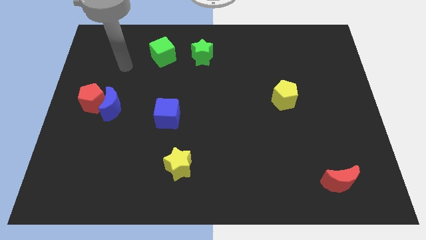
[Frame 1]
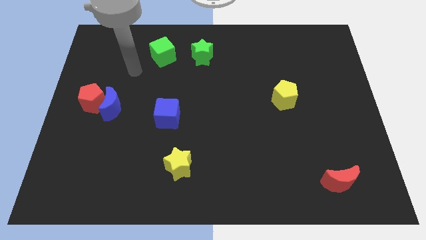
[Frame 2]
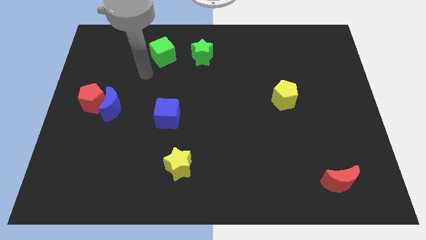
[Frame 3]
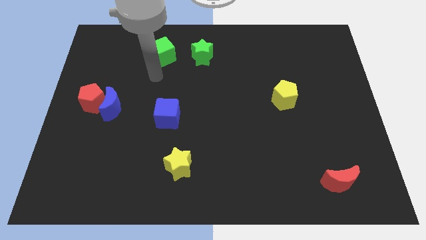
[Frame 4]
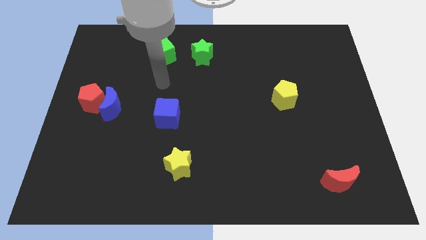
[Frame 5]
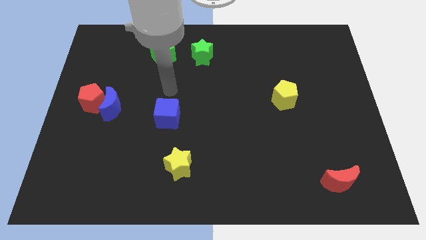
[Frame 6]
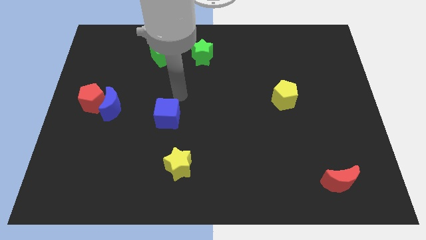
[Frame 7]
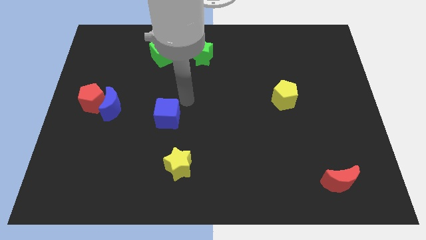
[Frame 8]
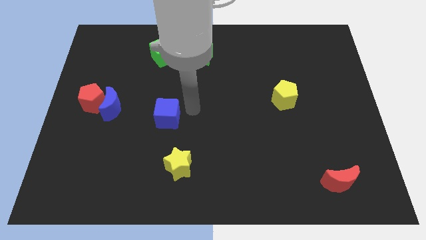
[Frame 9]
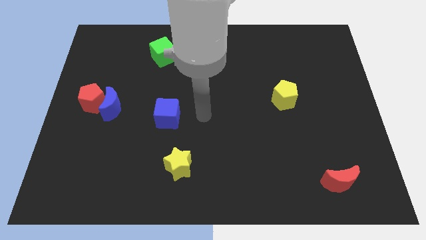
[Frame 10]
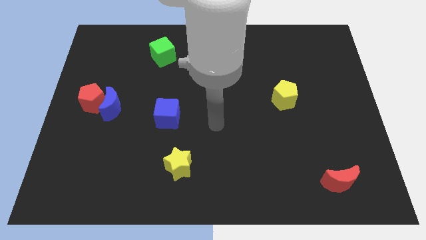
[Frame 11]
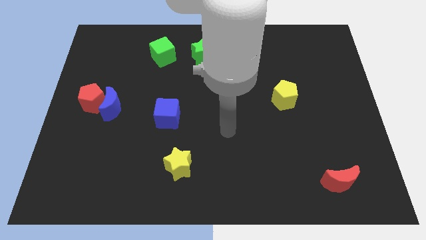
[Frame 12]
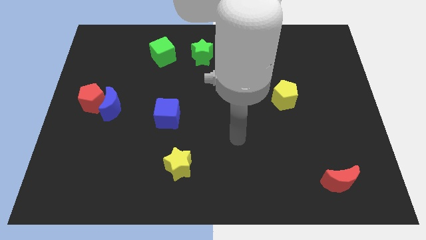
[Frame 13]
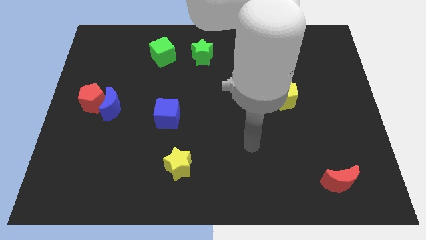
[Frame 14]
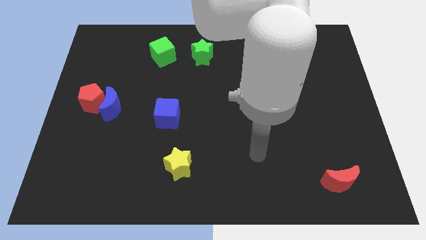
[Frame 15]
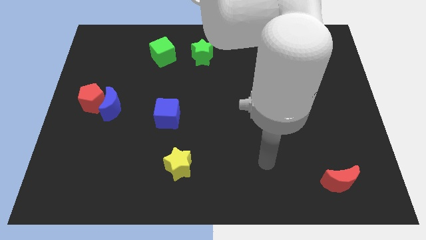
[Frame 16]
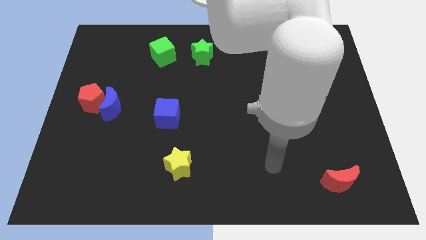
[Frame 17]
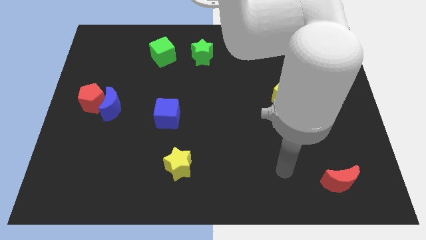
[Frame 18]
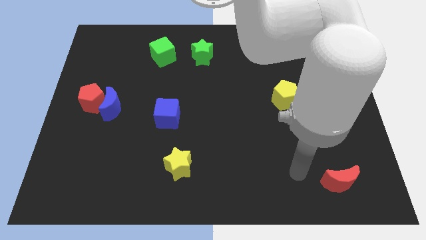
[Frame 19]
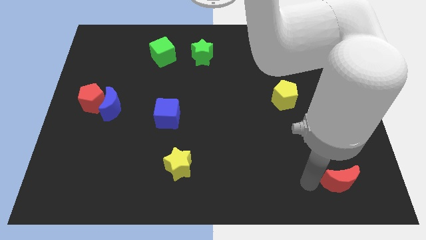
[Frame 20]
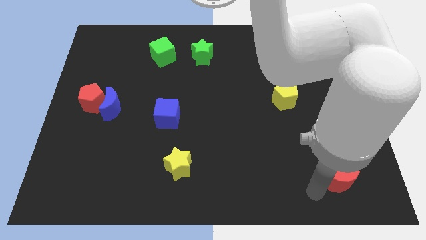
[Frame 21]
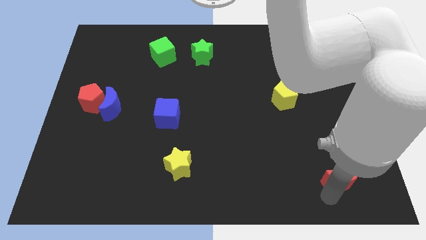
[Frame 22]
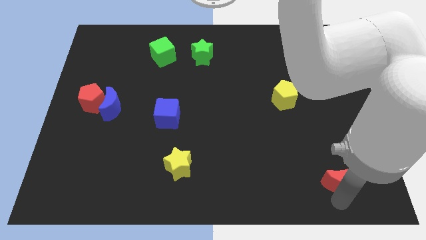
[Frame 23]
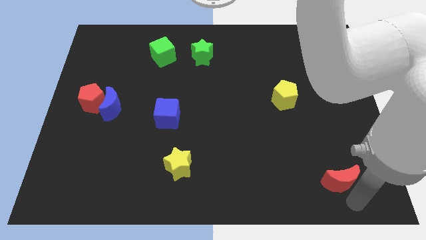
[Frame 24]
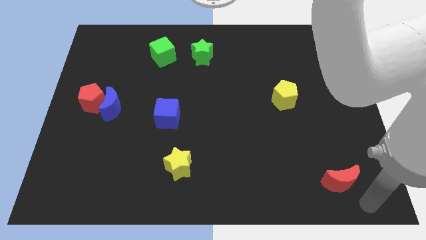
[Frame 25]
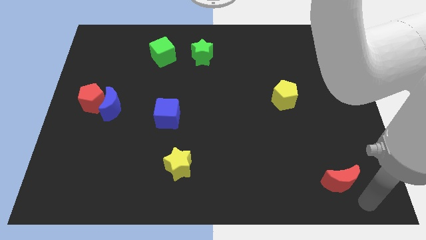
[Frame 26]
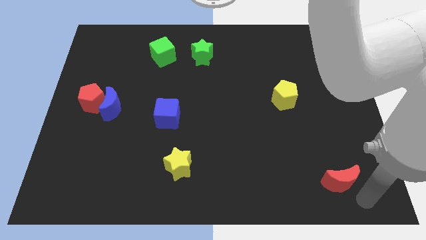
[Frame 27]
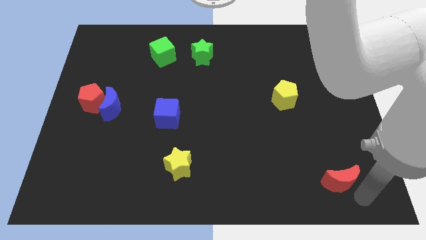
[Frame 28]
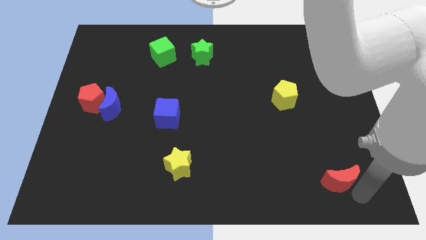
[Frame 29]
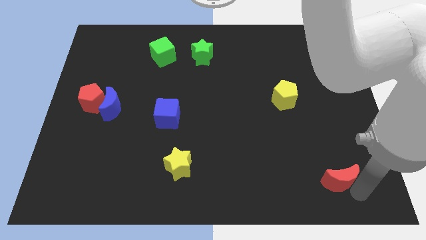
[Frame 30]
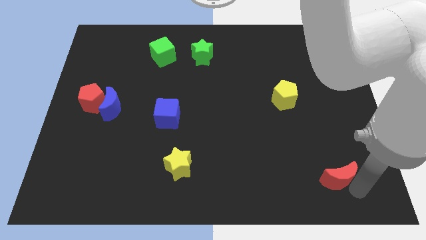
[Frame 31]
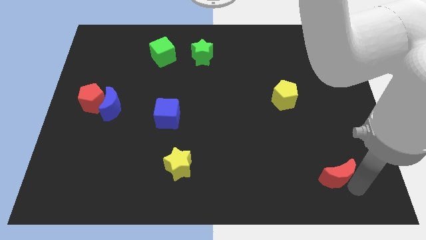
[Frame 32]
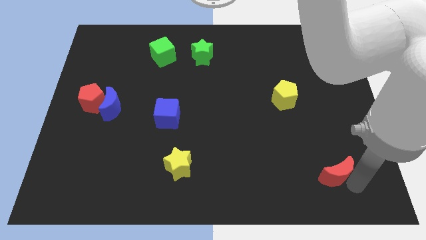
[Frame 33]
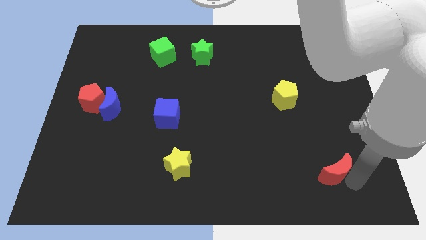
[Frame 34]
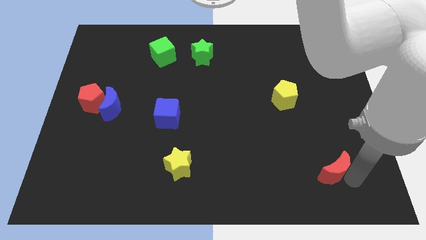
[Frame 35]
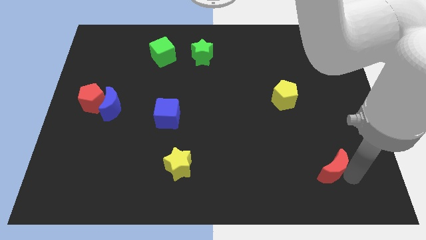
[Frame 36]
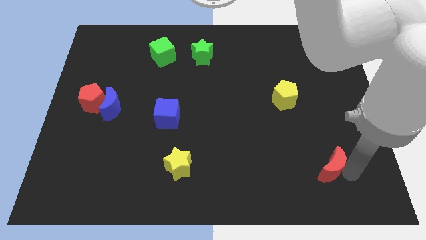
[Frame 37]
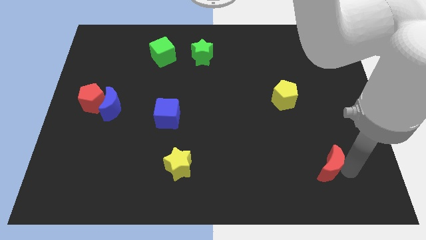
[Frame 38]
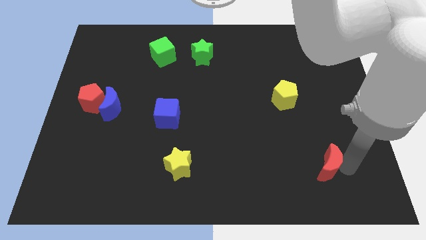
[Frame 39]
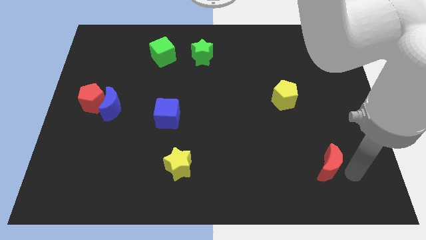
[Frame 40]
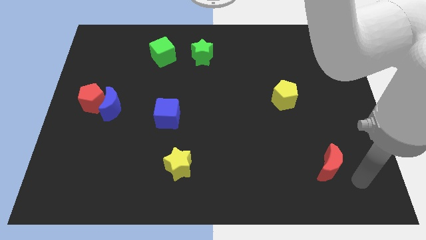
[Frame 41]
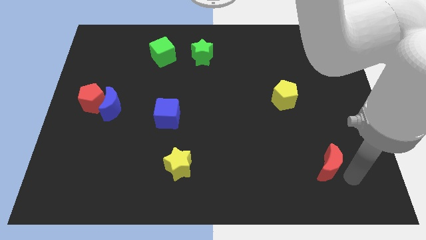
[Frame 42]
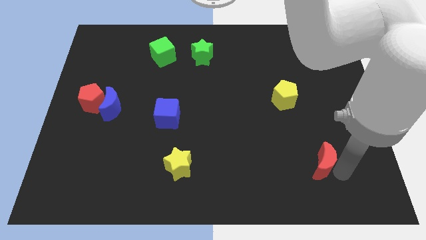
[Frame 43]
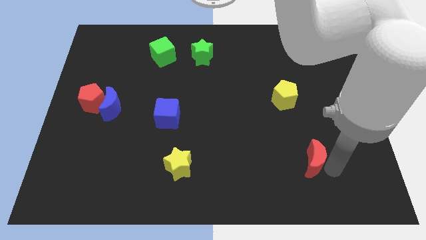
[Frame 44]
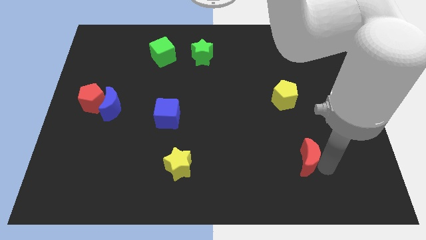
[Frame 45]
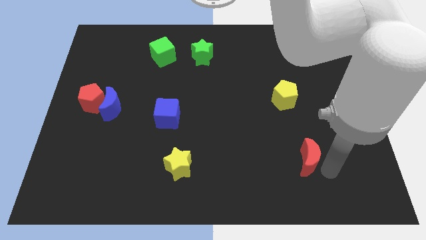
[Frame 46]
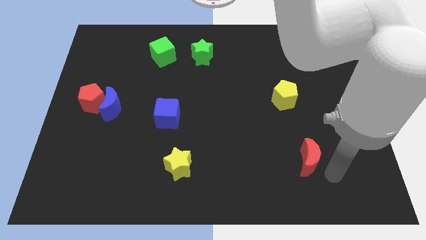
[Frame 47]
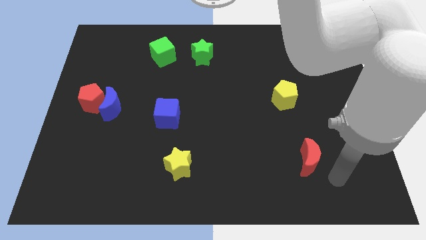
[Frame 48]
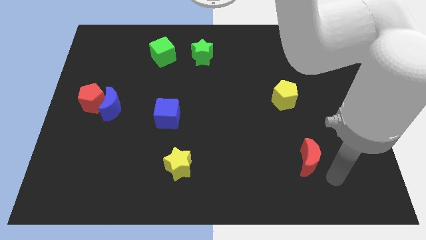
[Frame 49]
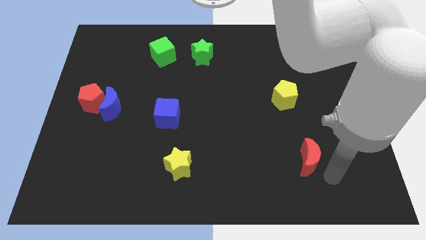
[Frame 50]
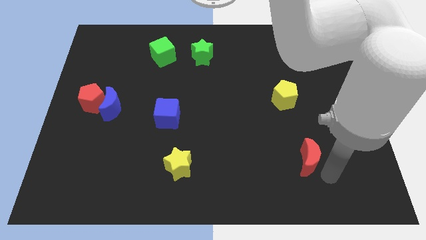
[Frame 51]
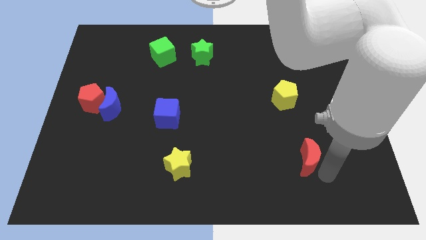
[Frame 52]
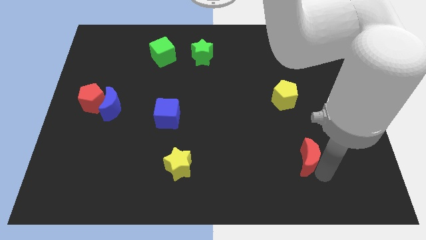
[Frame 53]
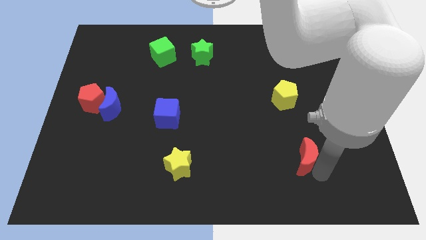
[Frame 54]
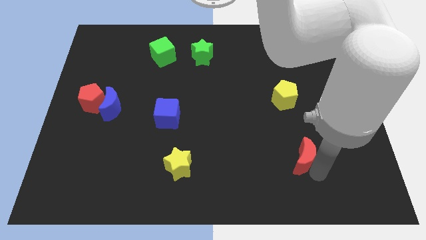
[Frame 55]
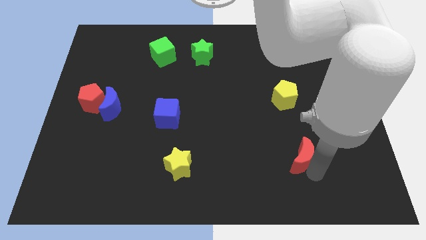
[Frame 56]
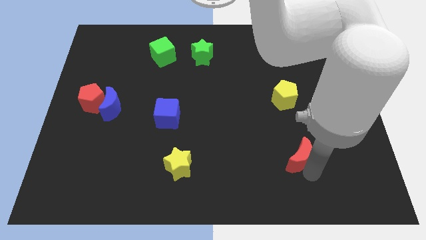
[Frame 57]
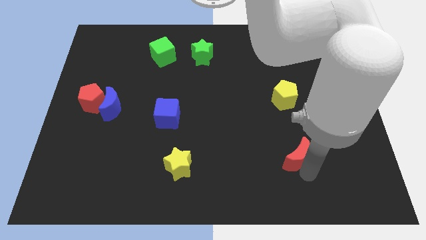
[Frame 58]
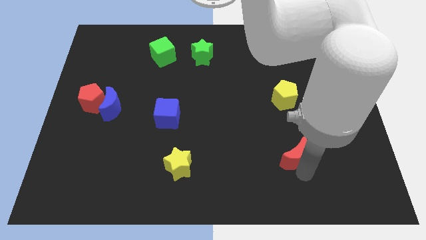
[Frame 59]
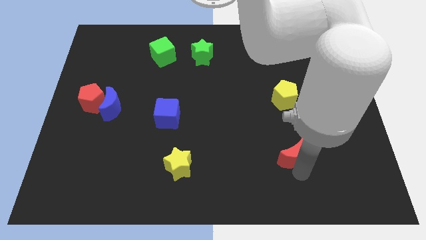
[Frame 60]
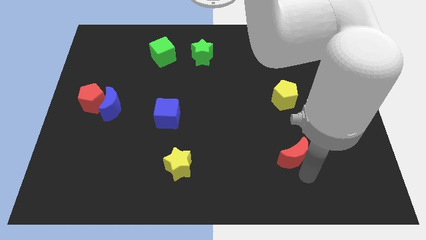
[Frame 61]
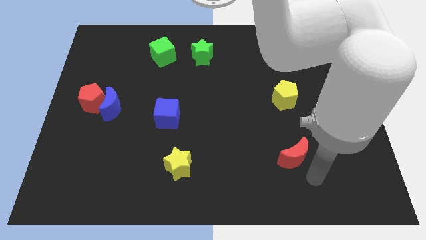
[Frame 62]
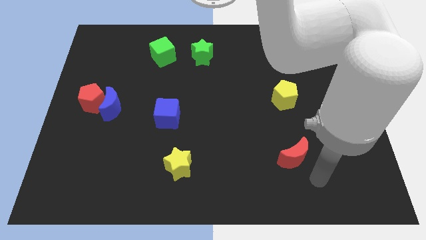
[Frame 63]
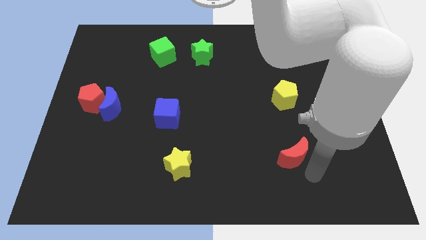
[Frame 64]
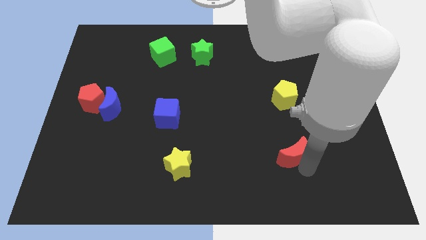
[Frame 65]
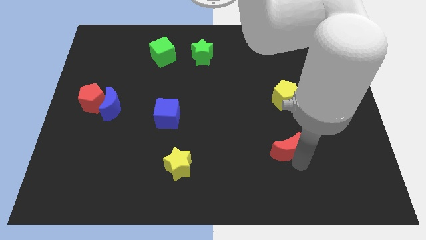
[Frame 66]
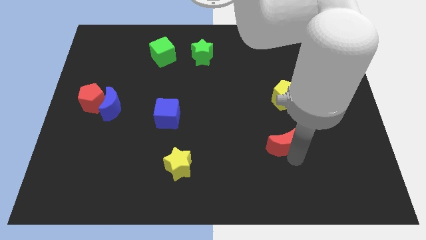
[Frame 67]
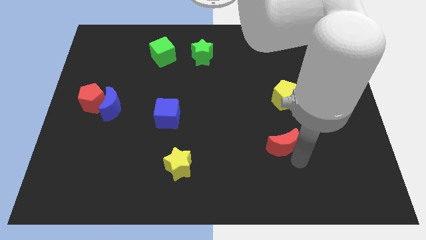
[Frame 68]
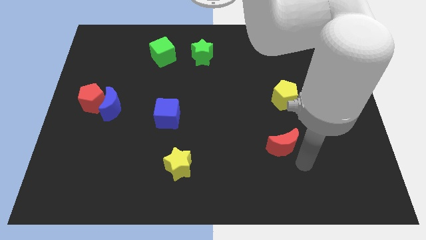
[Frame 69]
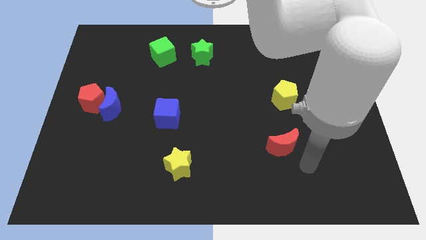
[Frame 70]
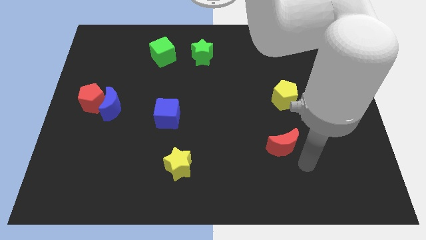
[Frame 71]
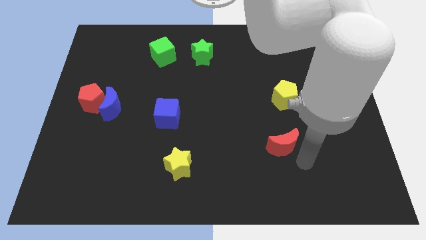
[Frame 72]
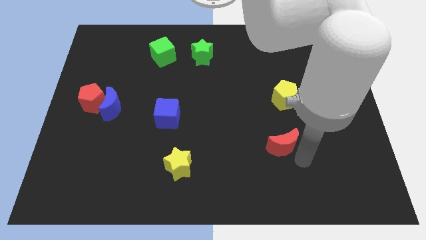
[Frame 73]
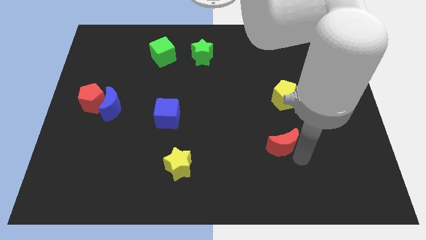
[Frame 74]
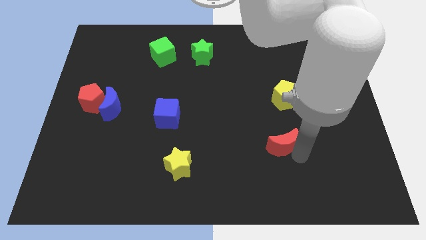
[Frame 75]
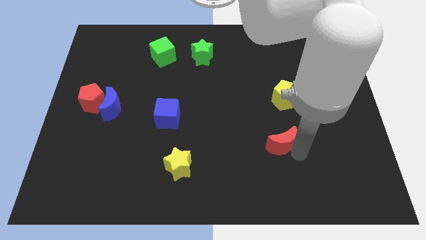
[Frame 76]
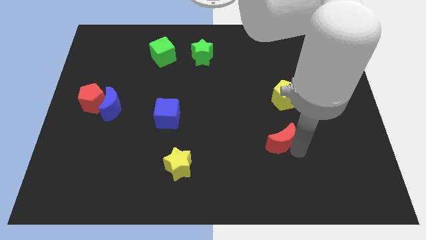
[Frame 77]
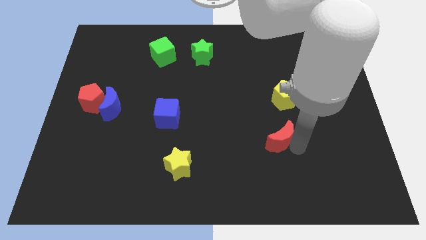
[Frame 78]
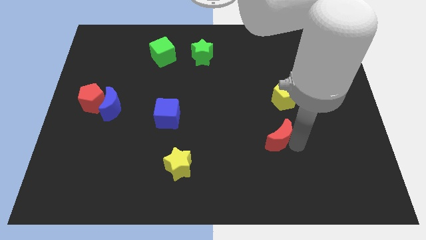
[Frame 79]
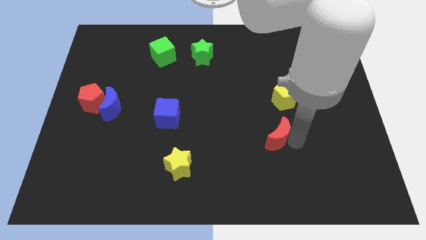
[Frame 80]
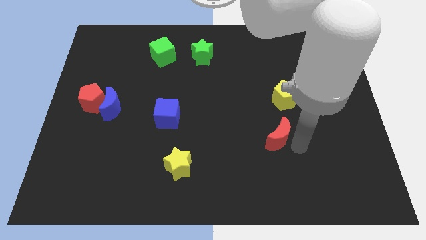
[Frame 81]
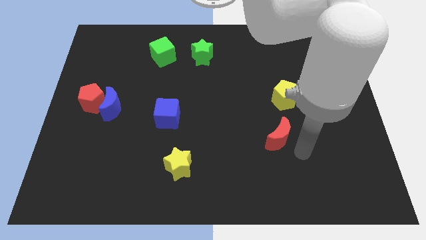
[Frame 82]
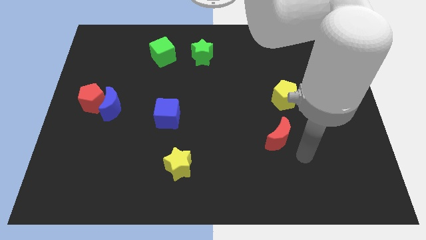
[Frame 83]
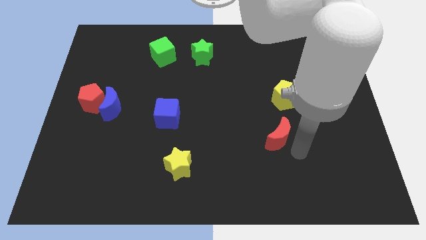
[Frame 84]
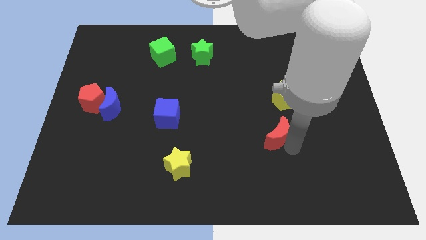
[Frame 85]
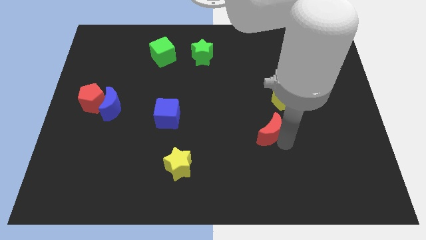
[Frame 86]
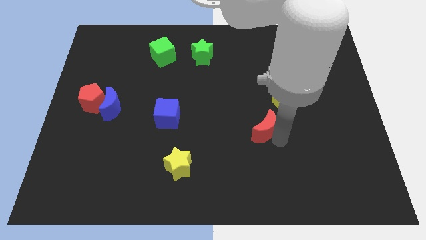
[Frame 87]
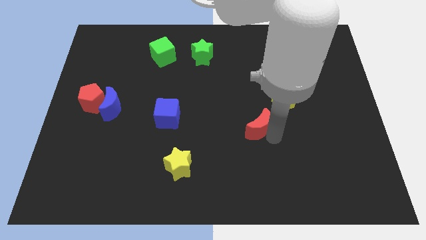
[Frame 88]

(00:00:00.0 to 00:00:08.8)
move the red moon upwards and then to the left
